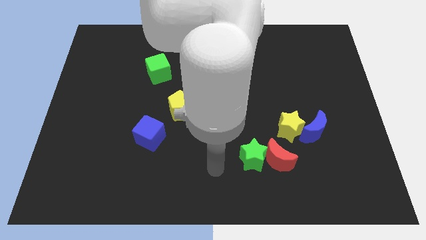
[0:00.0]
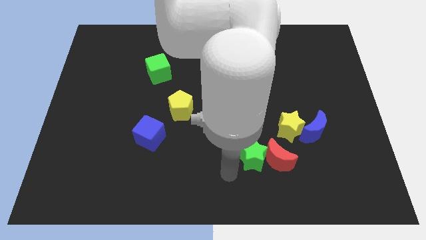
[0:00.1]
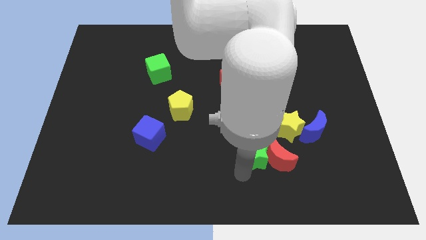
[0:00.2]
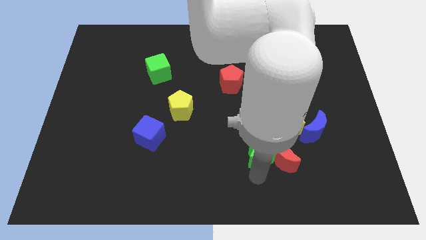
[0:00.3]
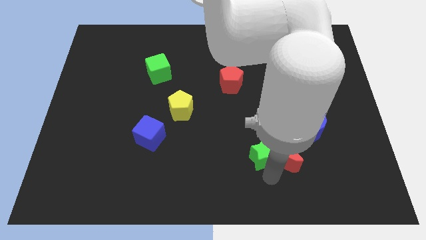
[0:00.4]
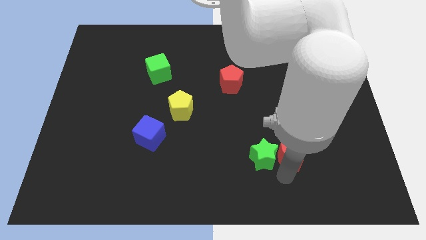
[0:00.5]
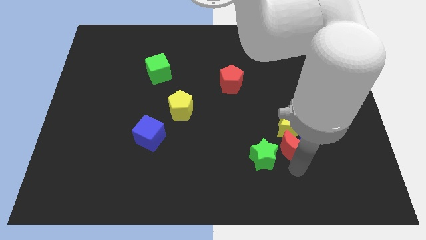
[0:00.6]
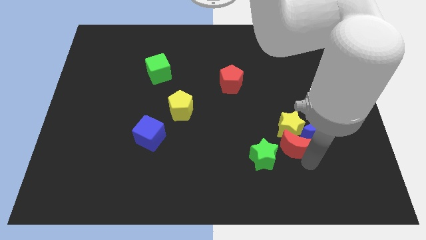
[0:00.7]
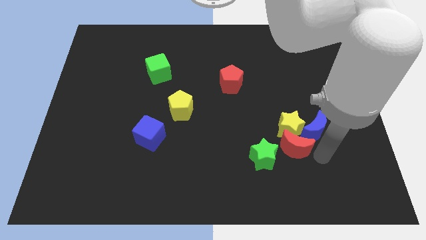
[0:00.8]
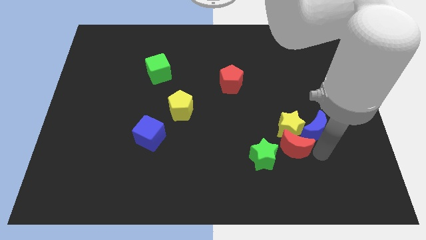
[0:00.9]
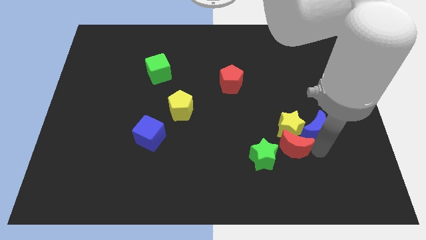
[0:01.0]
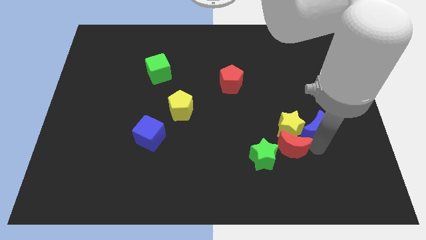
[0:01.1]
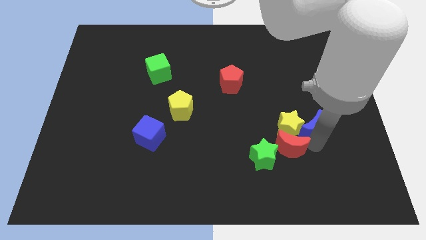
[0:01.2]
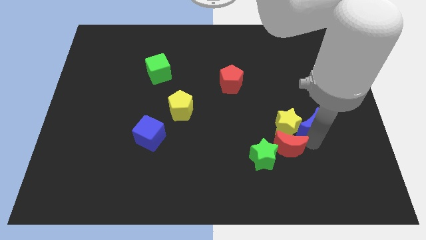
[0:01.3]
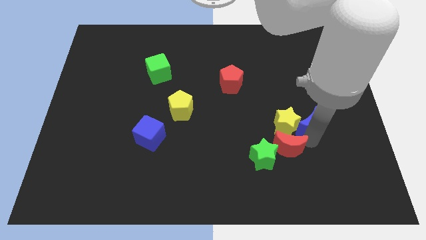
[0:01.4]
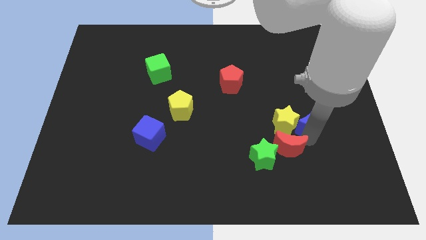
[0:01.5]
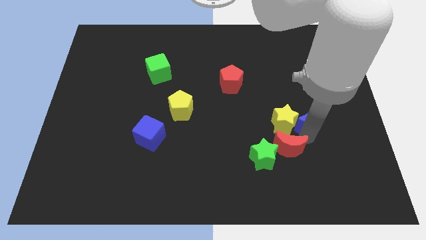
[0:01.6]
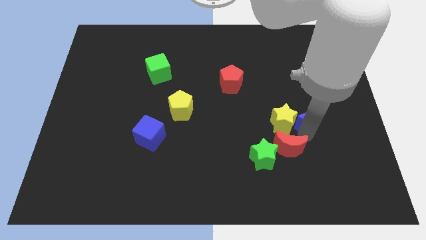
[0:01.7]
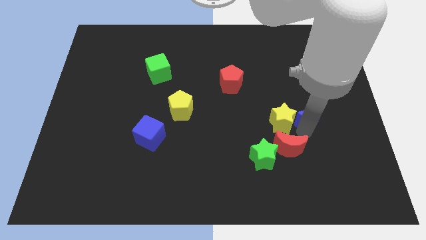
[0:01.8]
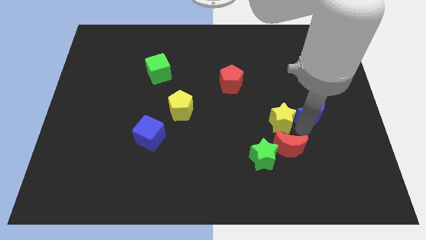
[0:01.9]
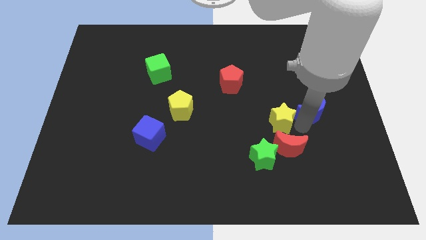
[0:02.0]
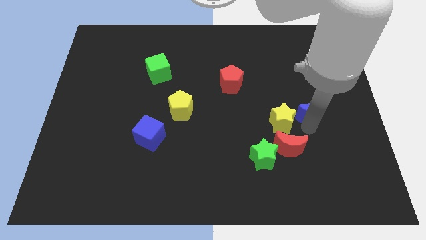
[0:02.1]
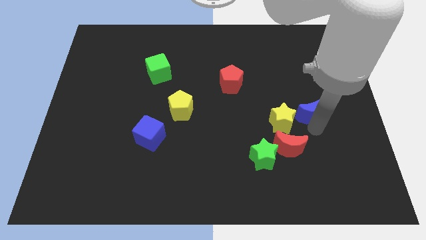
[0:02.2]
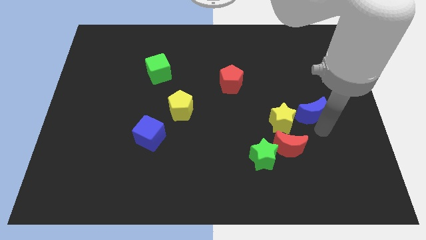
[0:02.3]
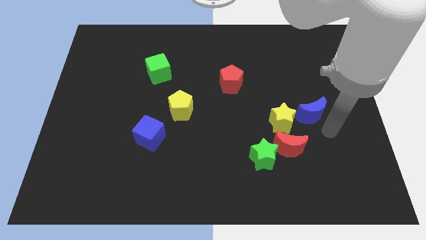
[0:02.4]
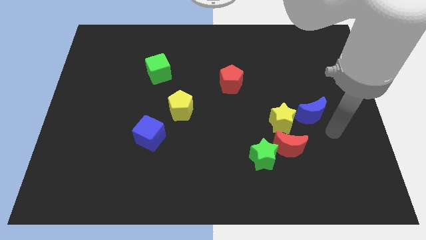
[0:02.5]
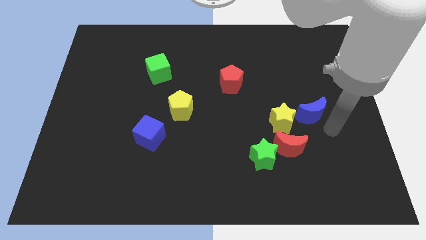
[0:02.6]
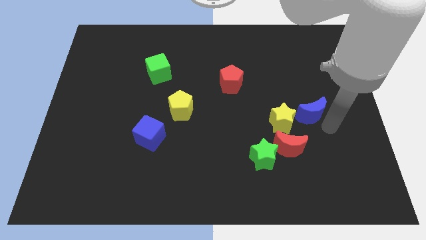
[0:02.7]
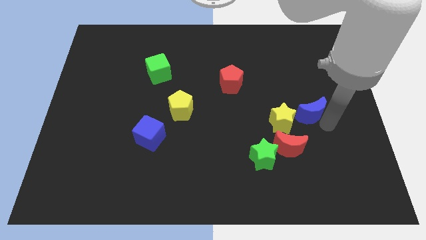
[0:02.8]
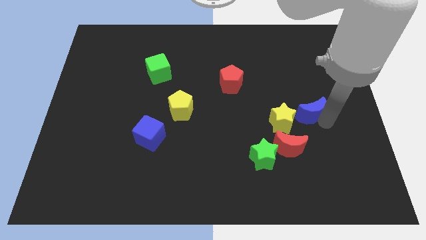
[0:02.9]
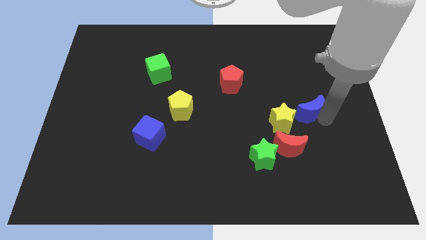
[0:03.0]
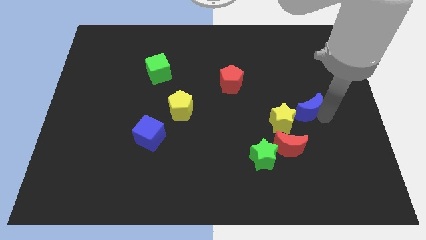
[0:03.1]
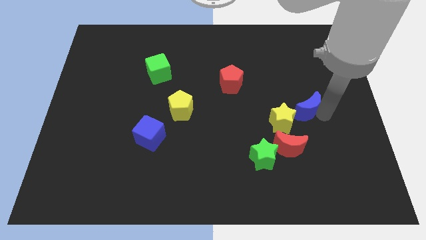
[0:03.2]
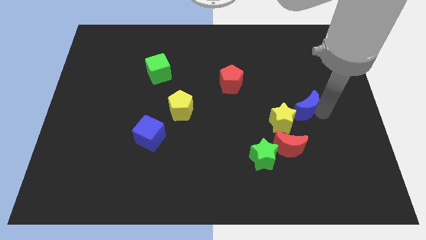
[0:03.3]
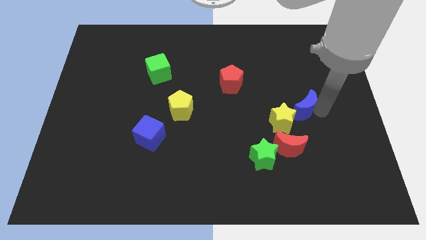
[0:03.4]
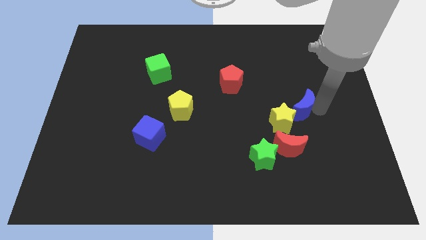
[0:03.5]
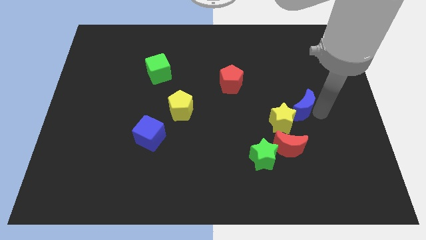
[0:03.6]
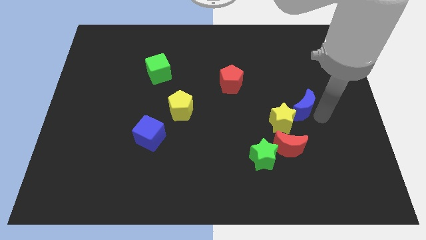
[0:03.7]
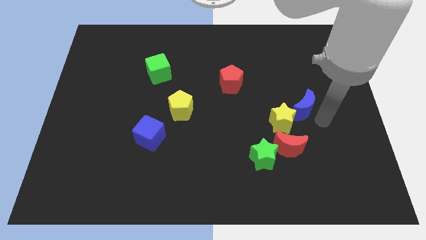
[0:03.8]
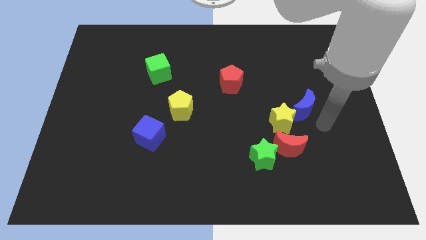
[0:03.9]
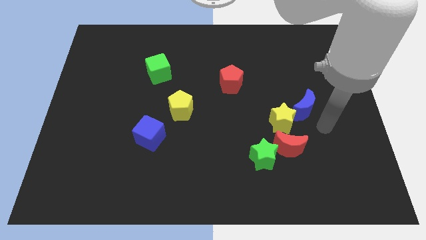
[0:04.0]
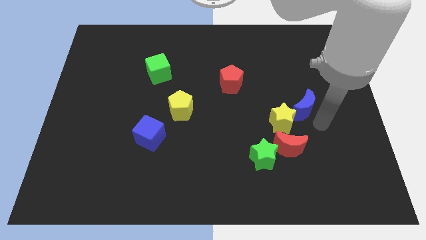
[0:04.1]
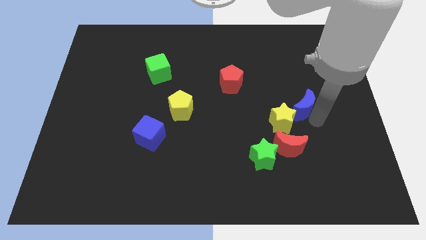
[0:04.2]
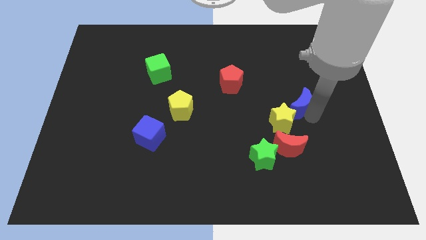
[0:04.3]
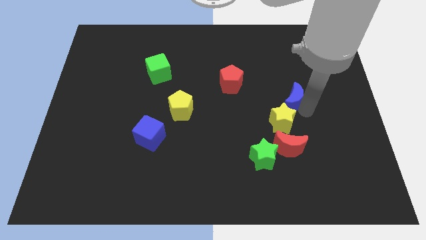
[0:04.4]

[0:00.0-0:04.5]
push the blue moon somewhat upwards and left diagonally

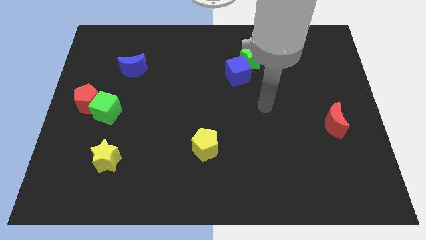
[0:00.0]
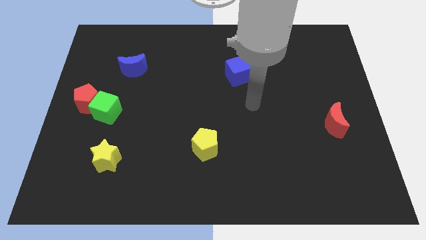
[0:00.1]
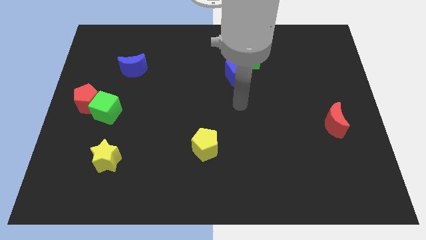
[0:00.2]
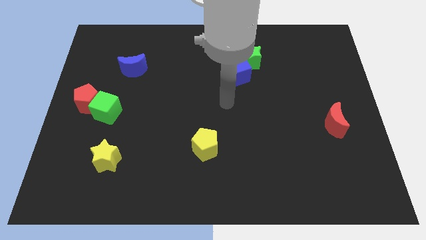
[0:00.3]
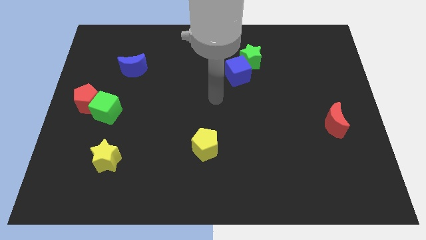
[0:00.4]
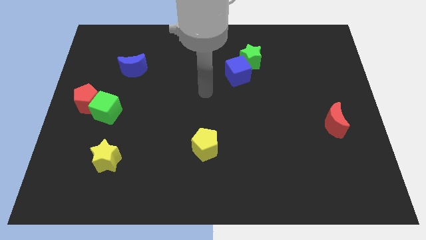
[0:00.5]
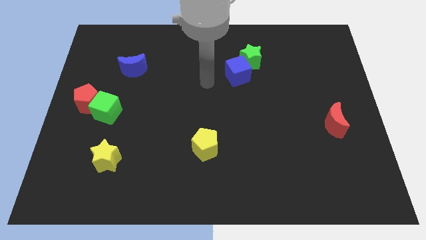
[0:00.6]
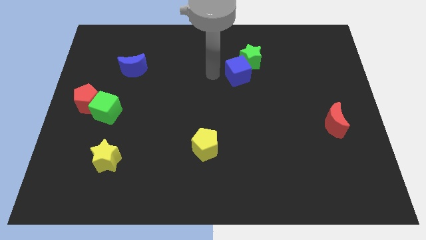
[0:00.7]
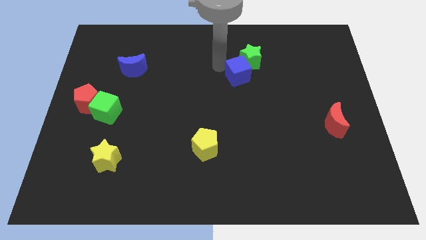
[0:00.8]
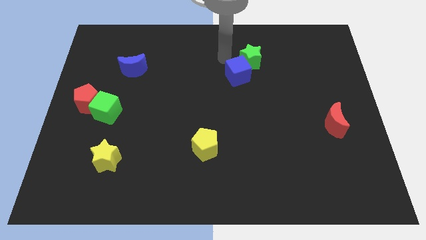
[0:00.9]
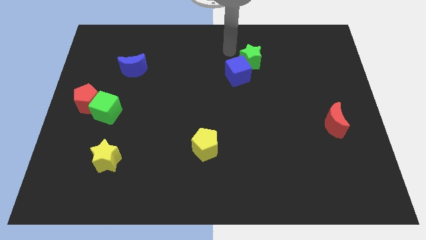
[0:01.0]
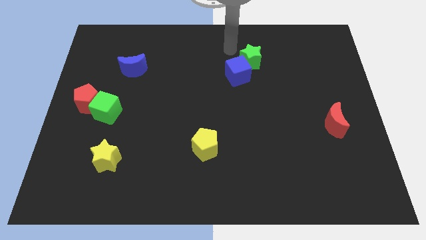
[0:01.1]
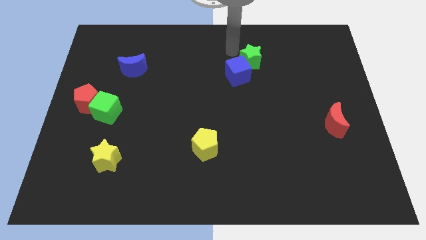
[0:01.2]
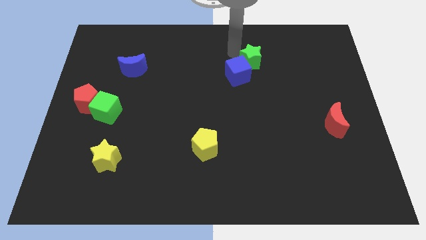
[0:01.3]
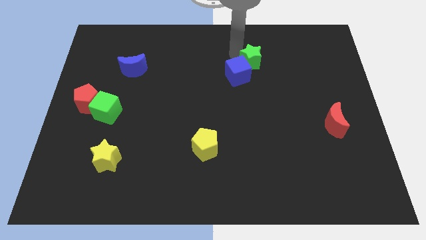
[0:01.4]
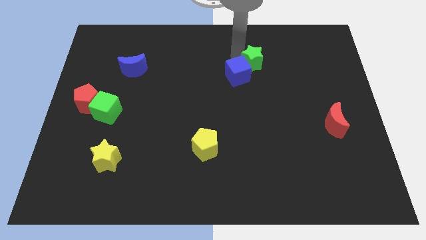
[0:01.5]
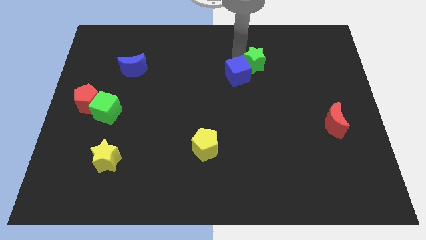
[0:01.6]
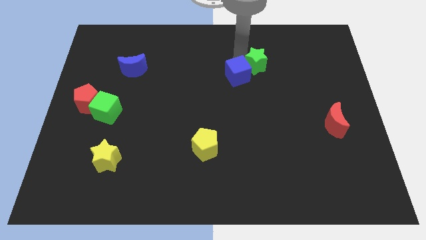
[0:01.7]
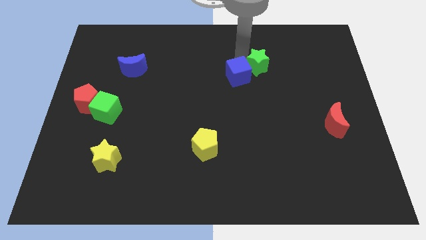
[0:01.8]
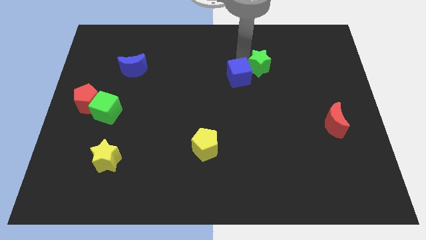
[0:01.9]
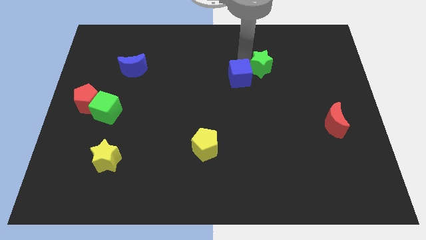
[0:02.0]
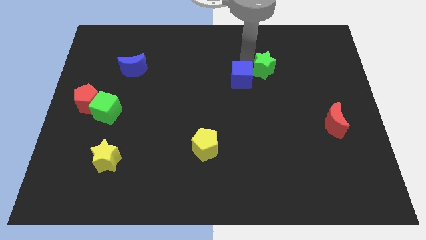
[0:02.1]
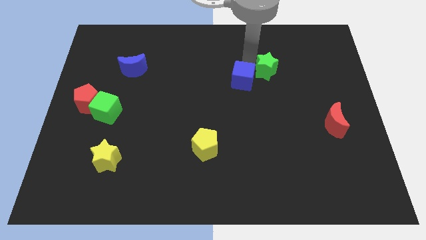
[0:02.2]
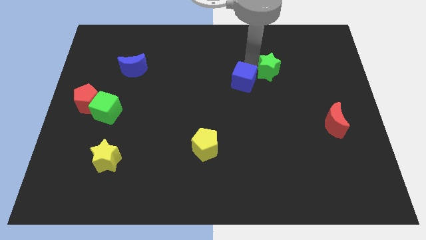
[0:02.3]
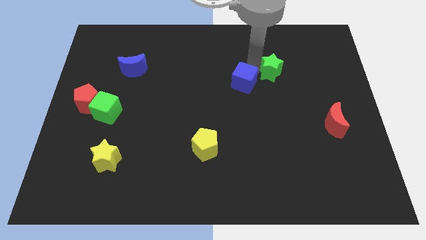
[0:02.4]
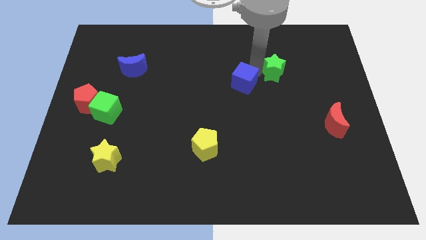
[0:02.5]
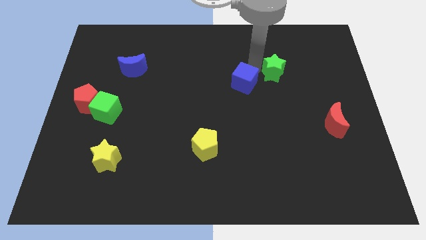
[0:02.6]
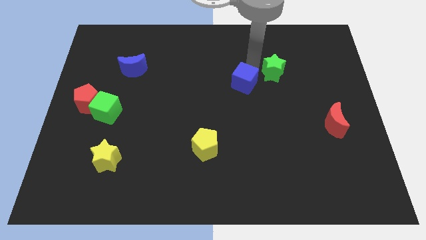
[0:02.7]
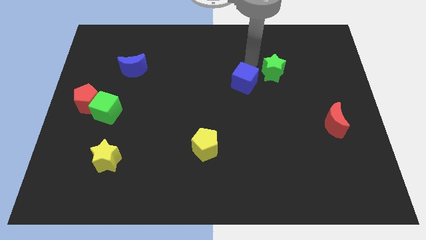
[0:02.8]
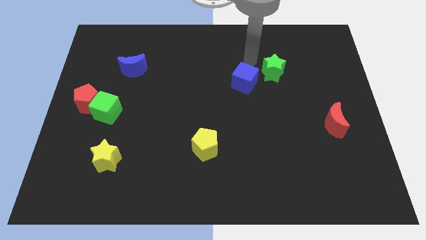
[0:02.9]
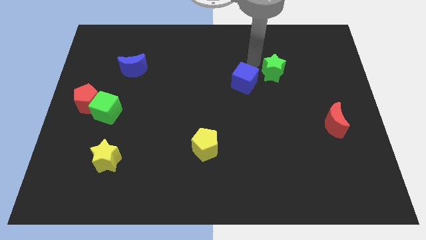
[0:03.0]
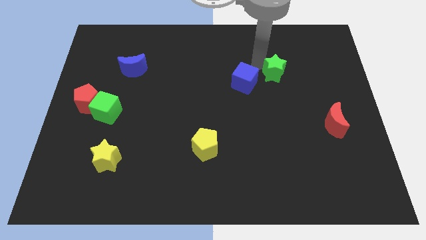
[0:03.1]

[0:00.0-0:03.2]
slide the green star slightly diagonally downwards and right

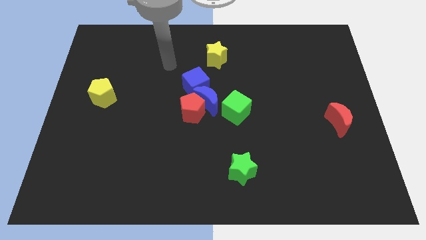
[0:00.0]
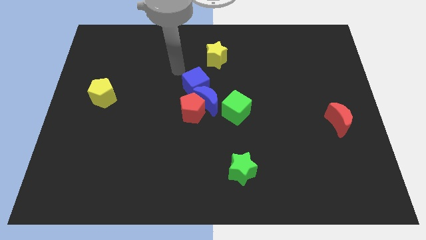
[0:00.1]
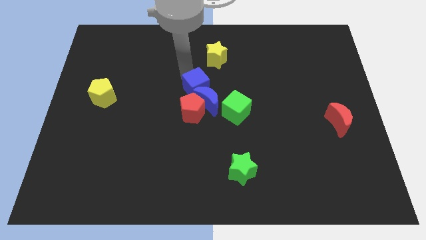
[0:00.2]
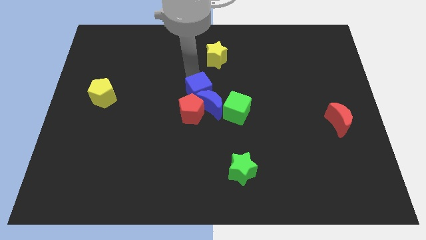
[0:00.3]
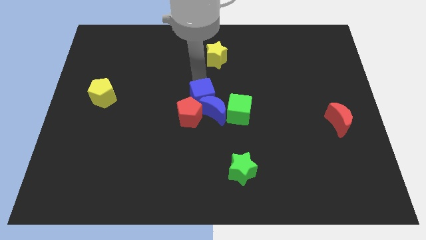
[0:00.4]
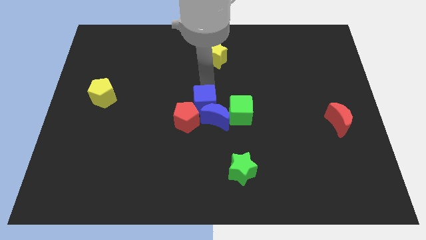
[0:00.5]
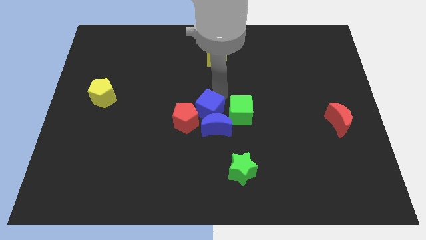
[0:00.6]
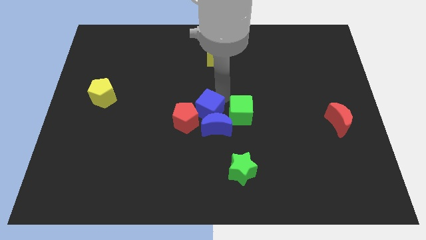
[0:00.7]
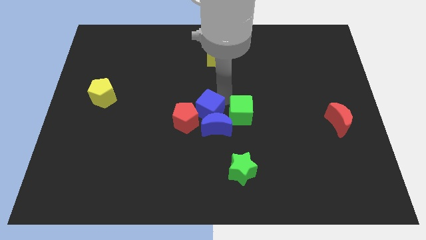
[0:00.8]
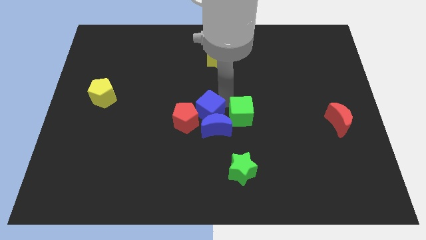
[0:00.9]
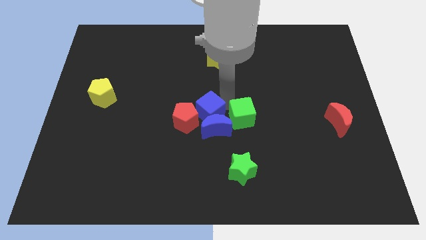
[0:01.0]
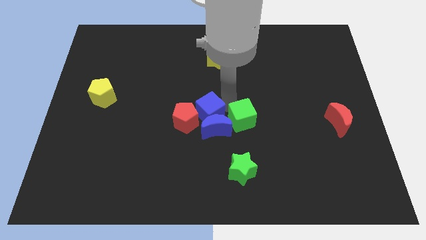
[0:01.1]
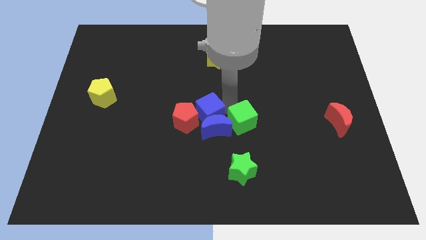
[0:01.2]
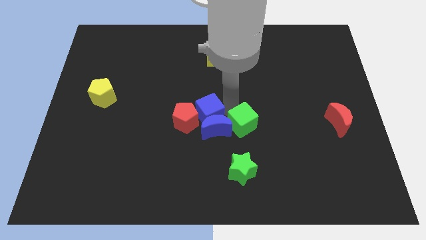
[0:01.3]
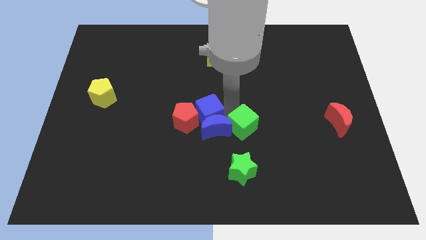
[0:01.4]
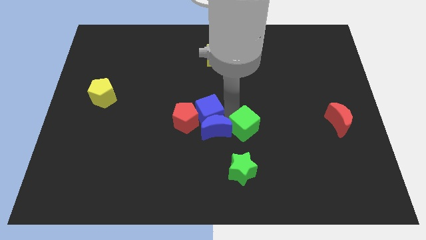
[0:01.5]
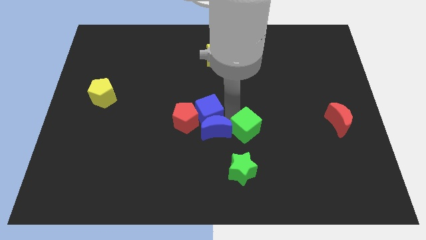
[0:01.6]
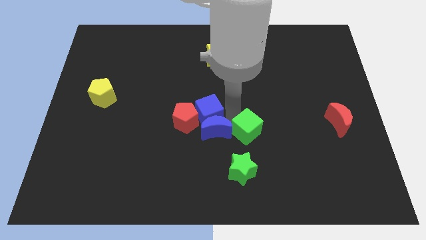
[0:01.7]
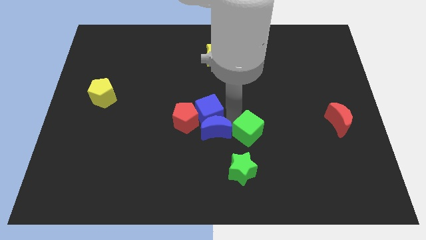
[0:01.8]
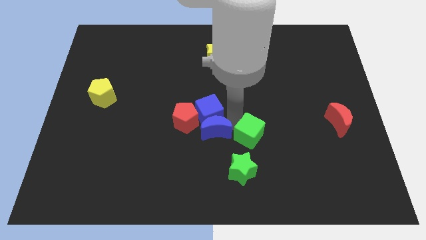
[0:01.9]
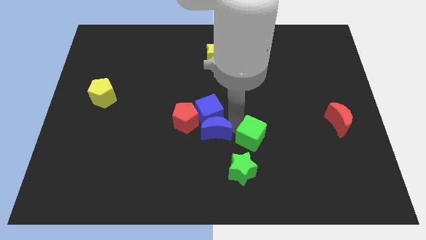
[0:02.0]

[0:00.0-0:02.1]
push the green cube a bit diagonally downwards and to the right
